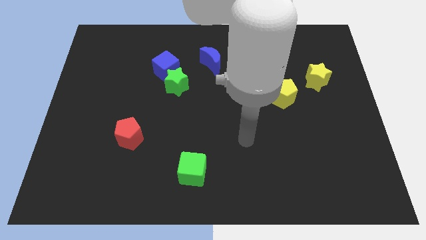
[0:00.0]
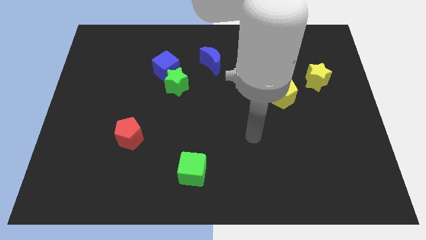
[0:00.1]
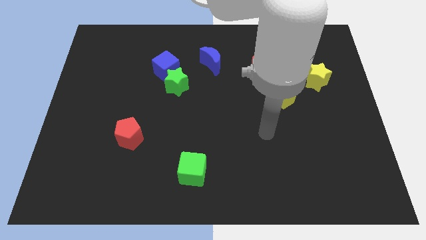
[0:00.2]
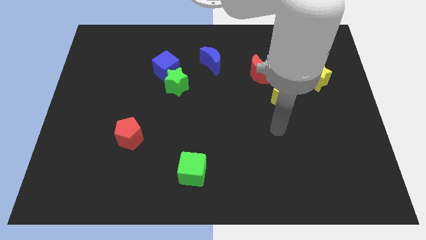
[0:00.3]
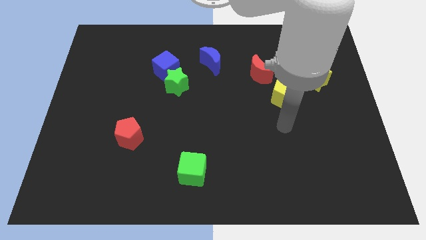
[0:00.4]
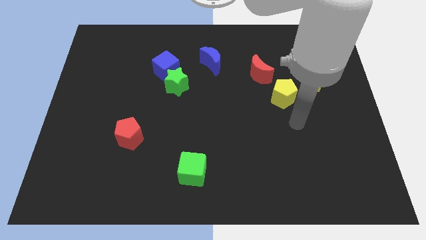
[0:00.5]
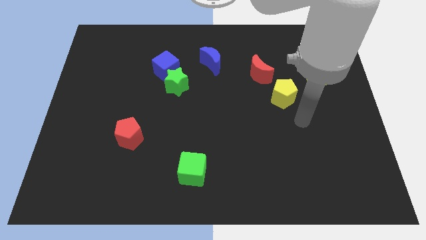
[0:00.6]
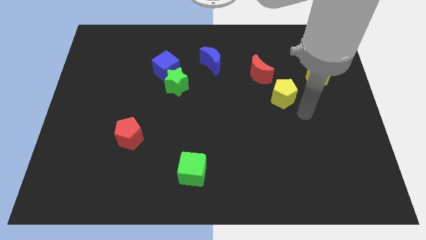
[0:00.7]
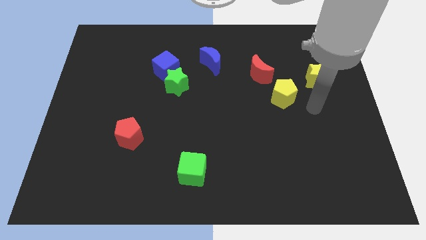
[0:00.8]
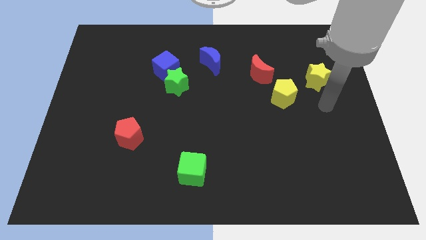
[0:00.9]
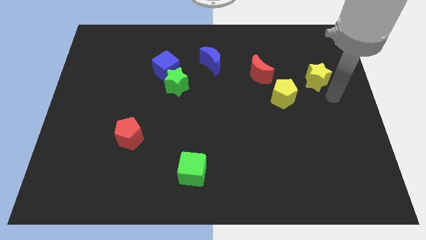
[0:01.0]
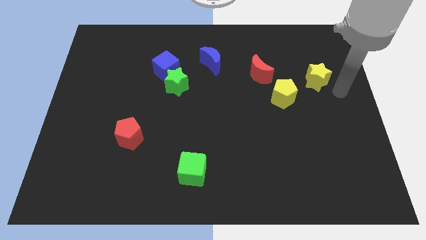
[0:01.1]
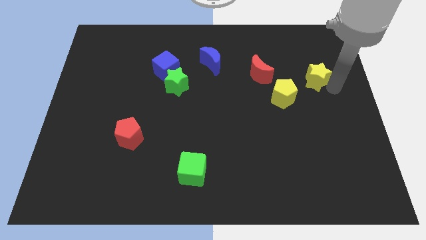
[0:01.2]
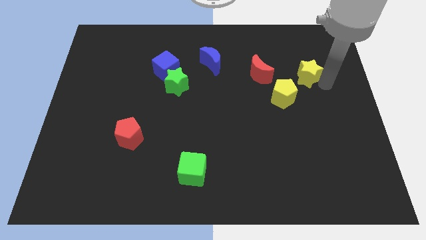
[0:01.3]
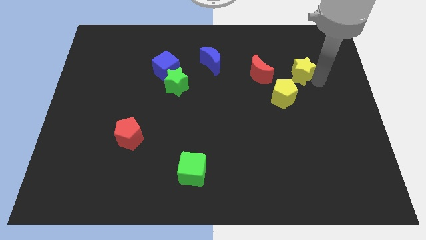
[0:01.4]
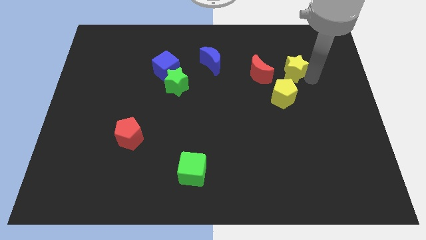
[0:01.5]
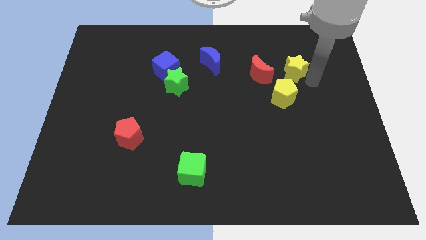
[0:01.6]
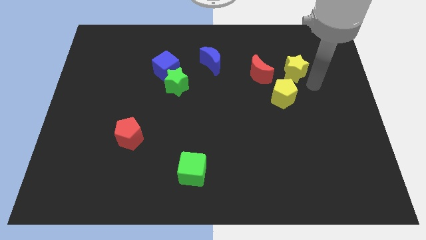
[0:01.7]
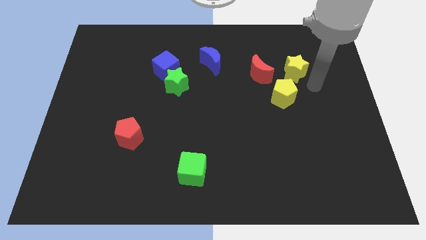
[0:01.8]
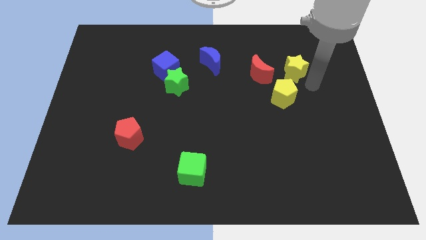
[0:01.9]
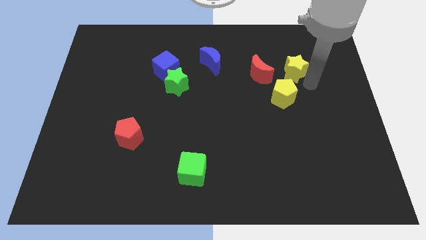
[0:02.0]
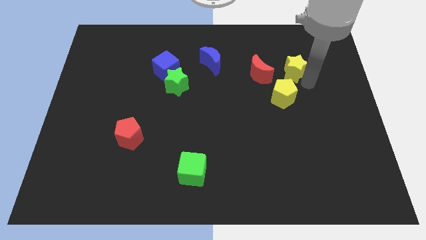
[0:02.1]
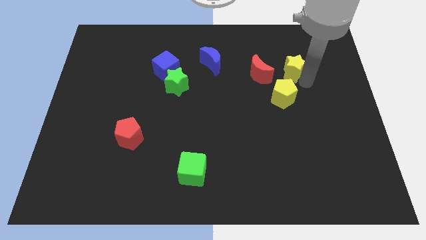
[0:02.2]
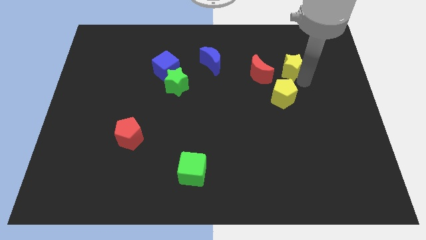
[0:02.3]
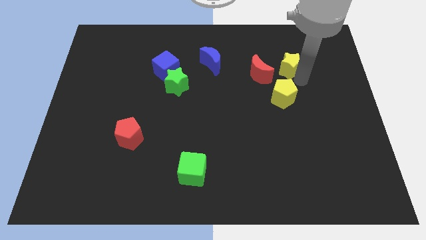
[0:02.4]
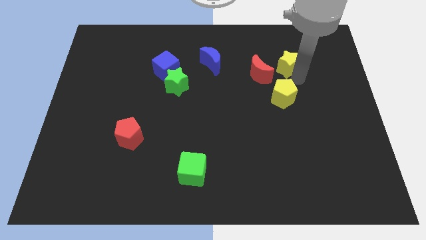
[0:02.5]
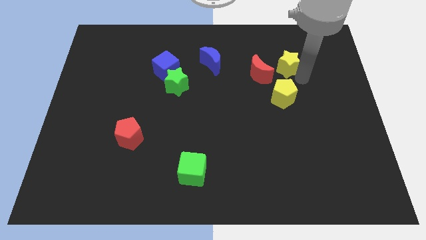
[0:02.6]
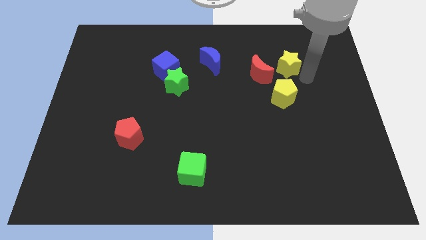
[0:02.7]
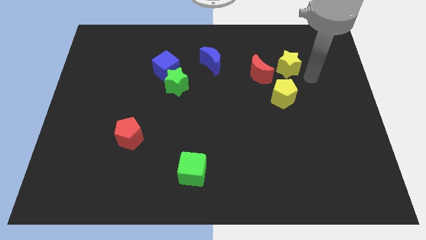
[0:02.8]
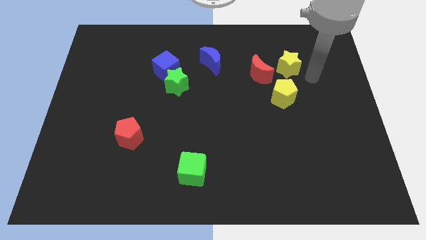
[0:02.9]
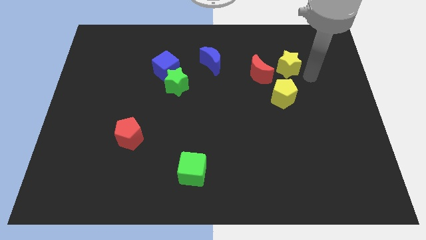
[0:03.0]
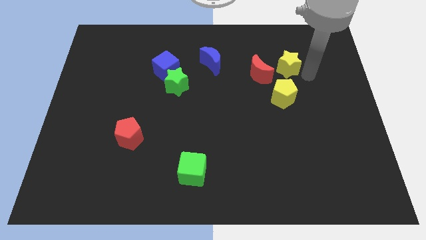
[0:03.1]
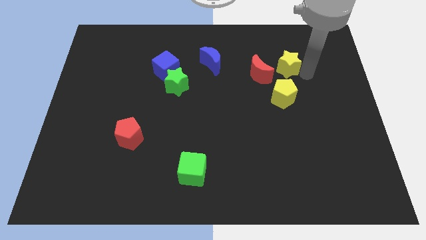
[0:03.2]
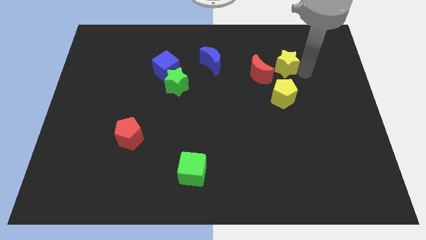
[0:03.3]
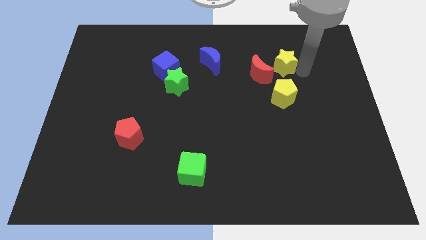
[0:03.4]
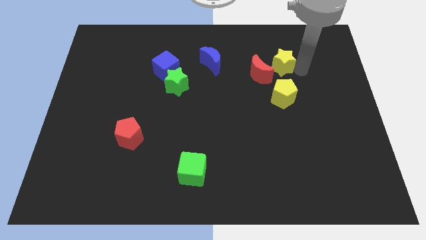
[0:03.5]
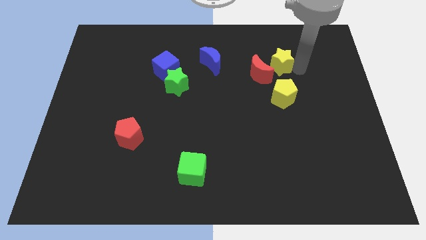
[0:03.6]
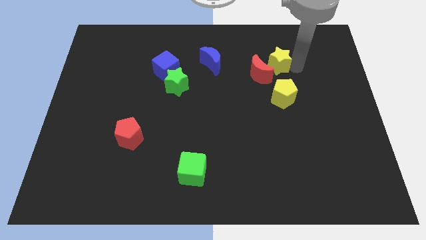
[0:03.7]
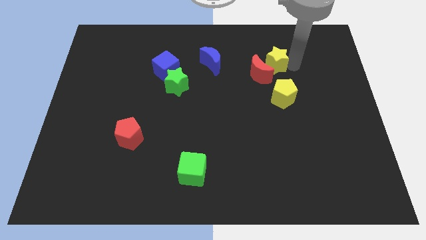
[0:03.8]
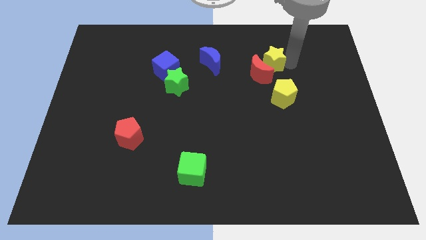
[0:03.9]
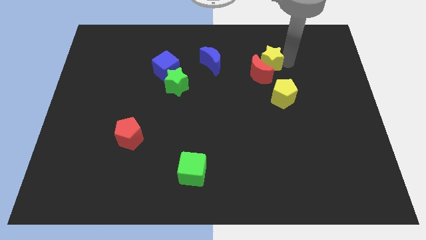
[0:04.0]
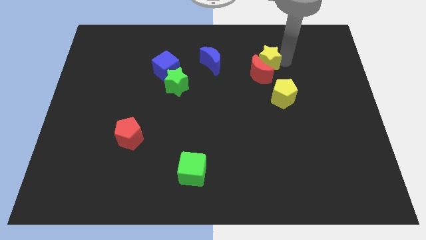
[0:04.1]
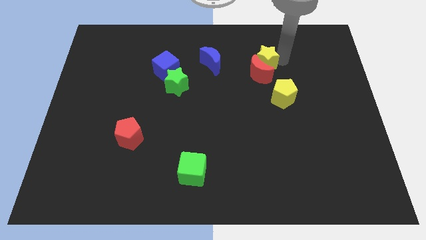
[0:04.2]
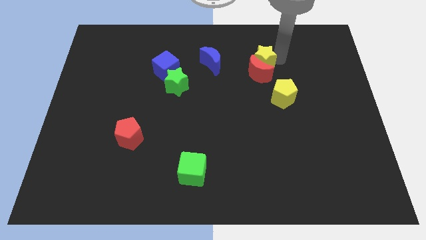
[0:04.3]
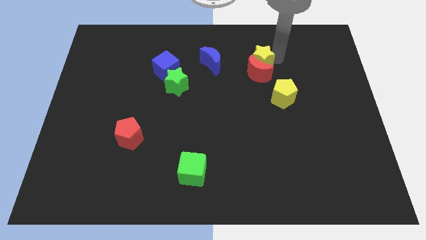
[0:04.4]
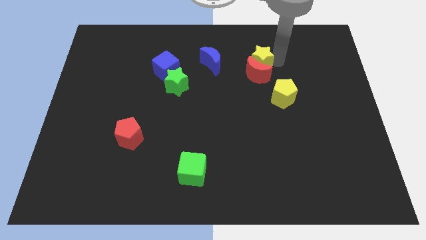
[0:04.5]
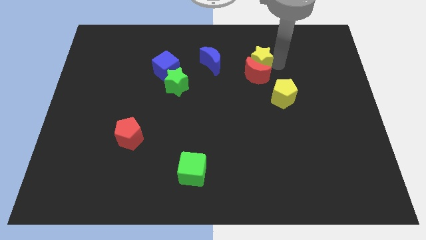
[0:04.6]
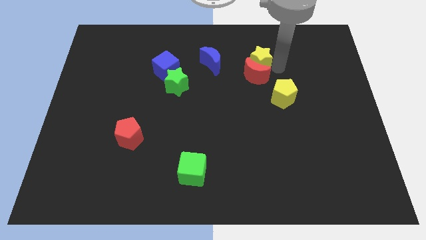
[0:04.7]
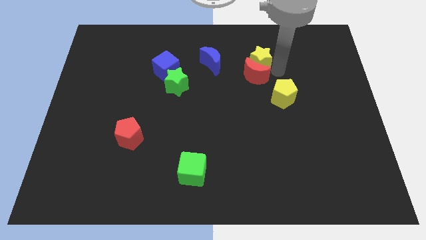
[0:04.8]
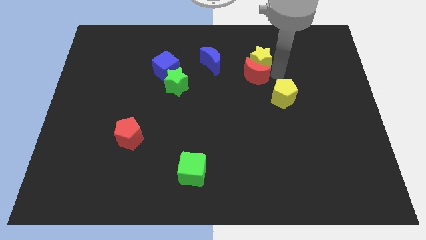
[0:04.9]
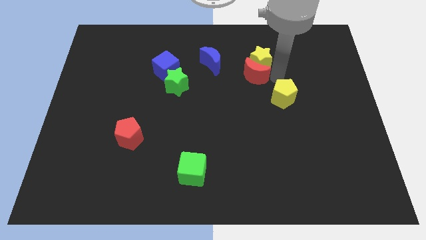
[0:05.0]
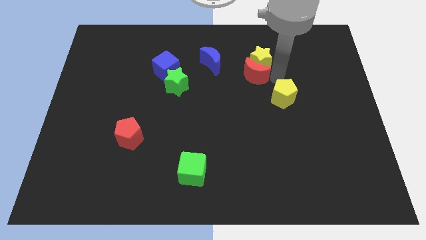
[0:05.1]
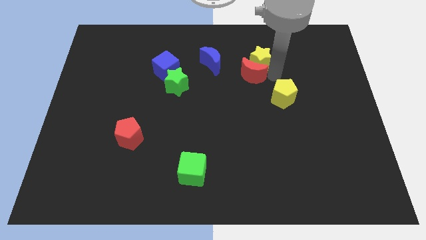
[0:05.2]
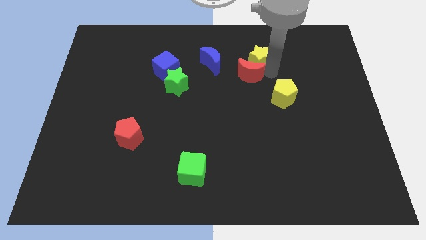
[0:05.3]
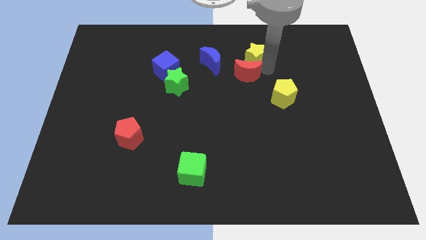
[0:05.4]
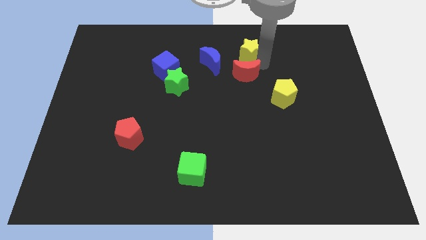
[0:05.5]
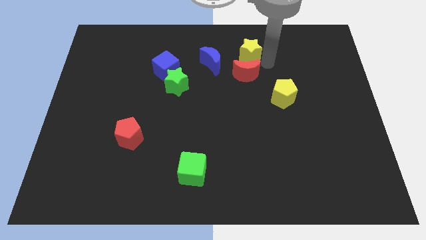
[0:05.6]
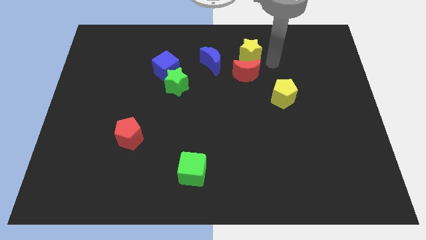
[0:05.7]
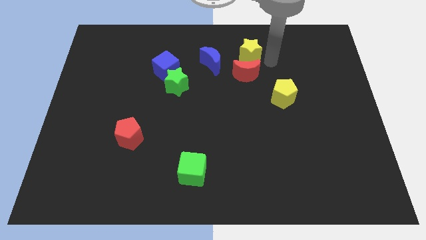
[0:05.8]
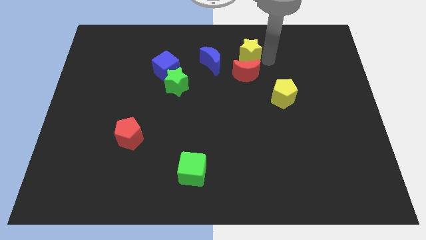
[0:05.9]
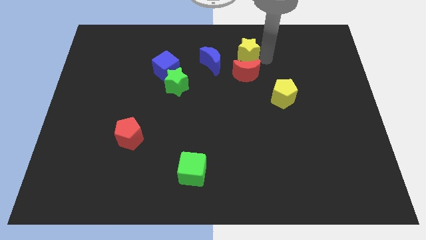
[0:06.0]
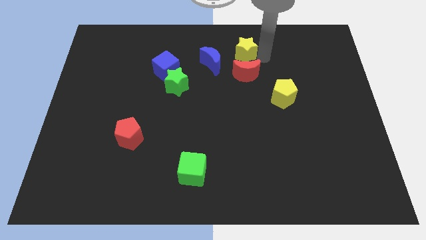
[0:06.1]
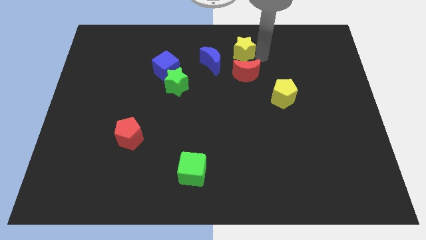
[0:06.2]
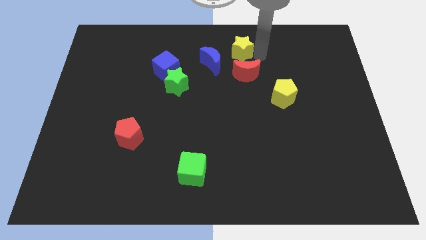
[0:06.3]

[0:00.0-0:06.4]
move the yellow star to the top

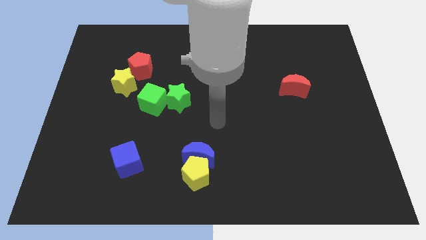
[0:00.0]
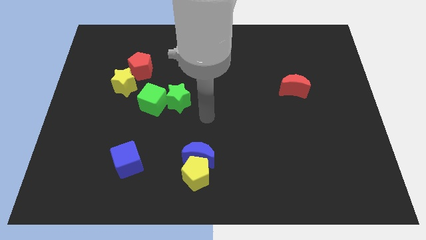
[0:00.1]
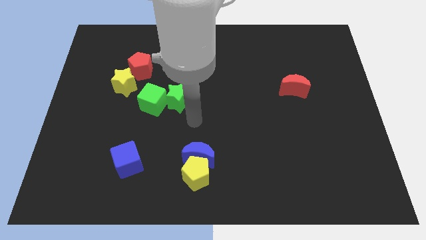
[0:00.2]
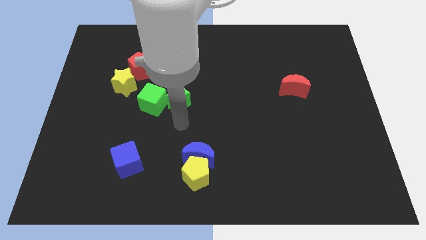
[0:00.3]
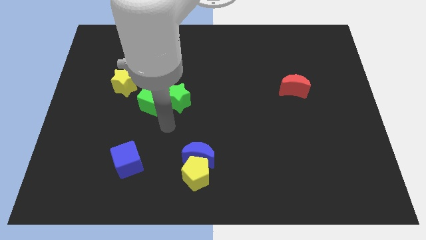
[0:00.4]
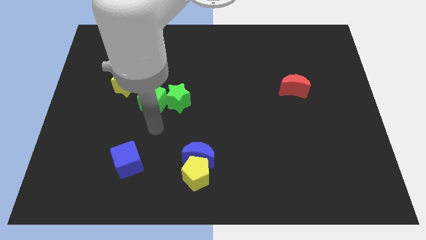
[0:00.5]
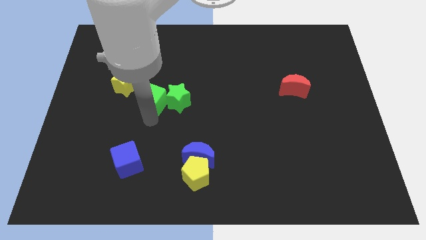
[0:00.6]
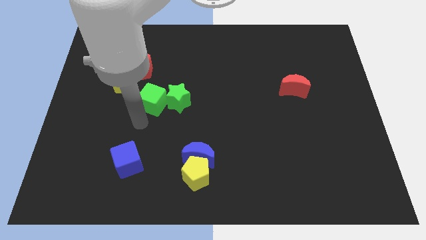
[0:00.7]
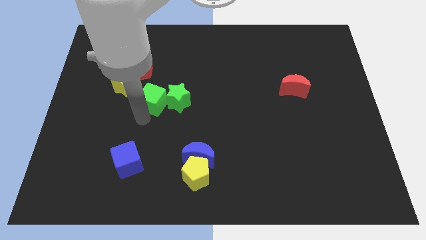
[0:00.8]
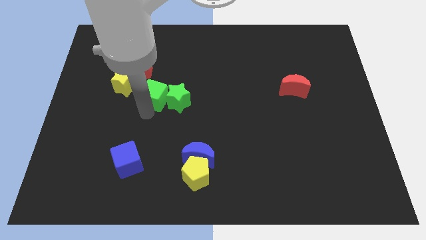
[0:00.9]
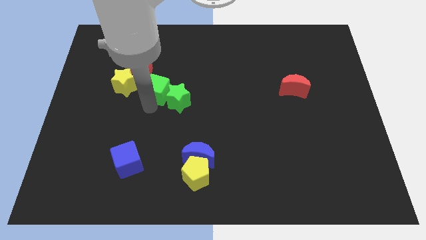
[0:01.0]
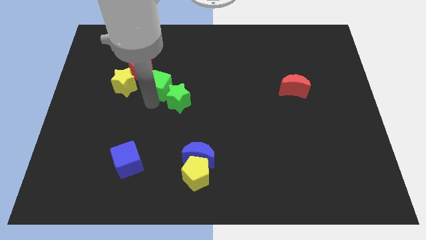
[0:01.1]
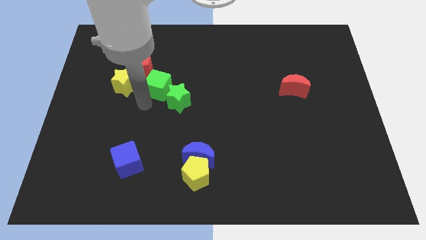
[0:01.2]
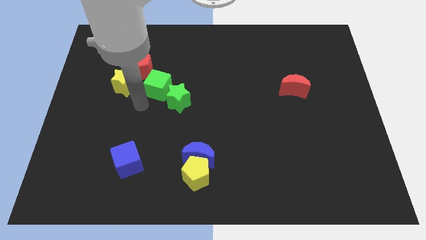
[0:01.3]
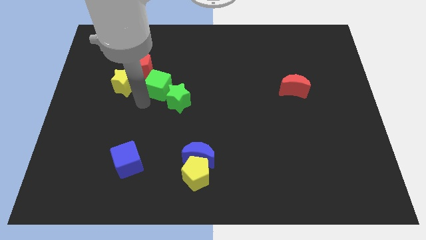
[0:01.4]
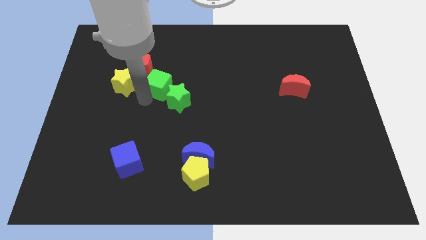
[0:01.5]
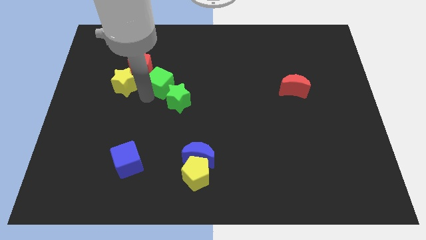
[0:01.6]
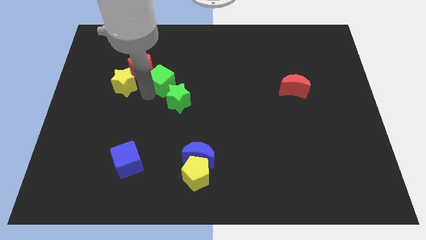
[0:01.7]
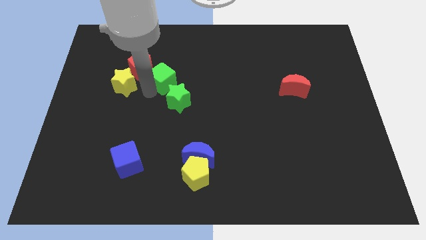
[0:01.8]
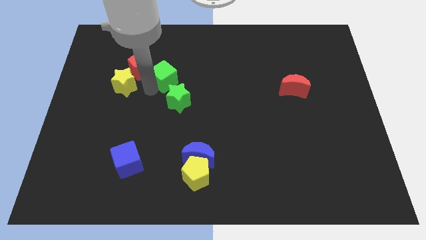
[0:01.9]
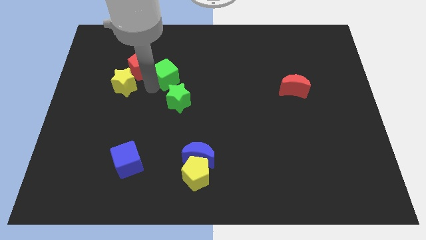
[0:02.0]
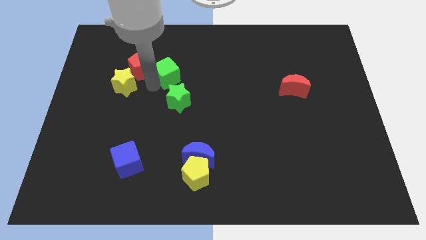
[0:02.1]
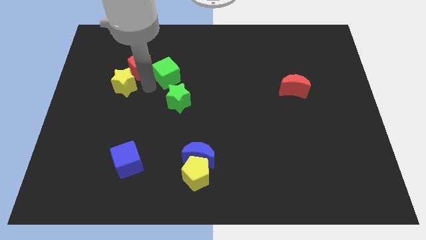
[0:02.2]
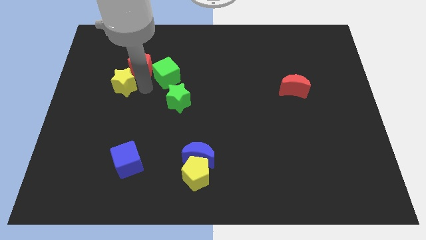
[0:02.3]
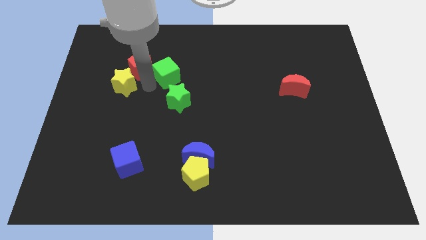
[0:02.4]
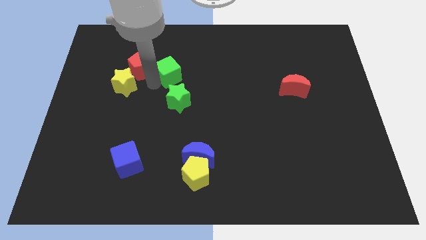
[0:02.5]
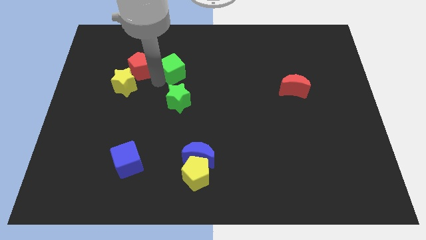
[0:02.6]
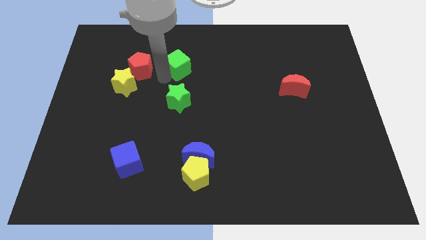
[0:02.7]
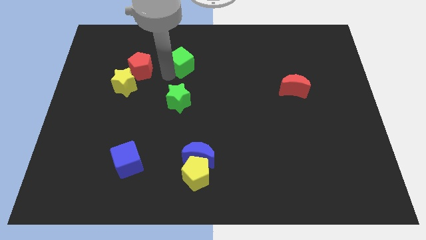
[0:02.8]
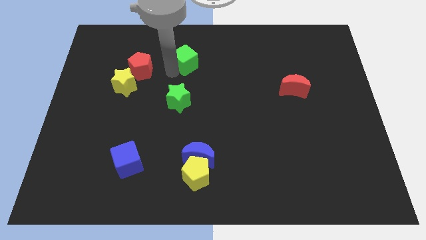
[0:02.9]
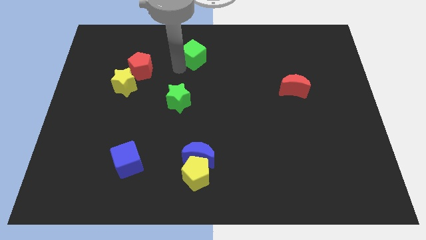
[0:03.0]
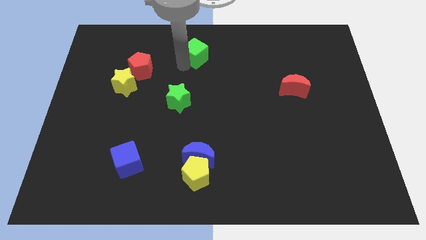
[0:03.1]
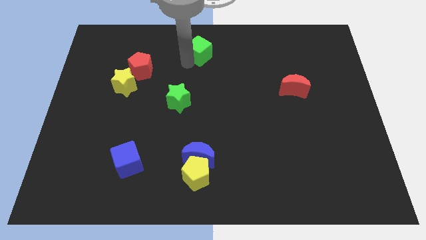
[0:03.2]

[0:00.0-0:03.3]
push the green cube to the top
